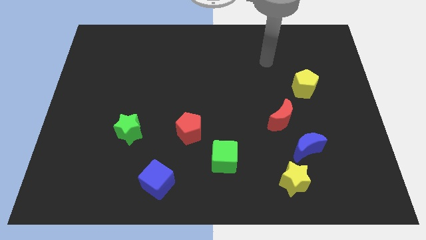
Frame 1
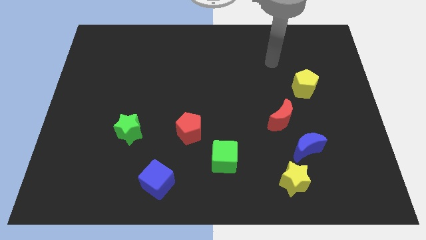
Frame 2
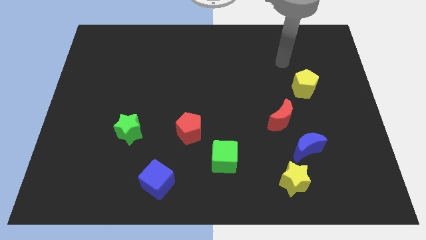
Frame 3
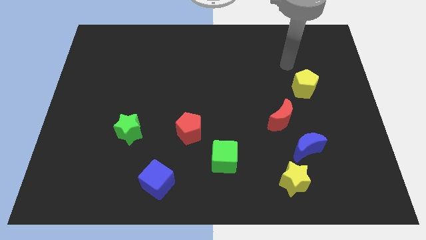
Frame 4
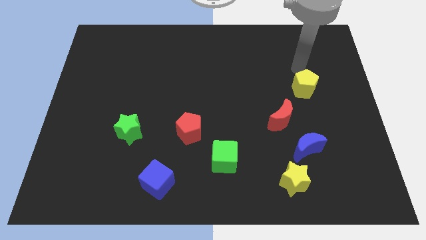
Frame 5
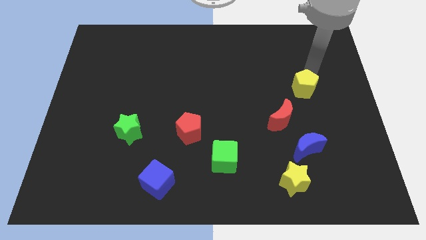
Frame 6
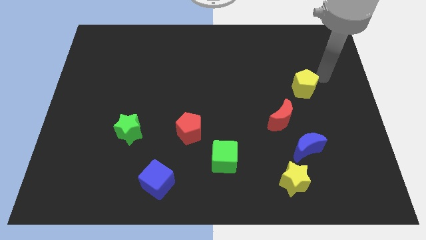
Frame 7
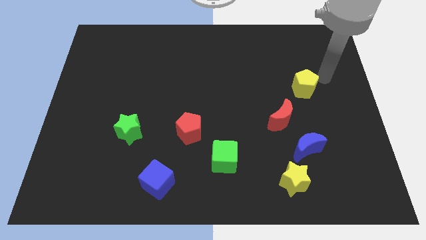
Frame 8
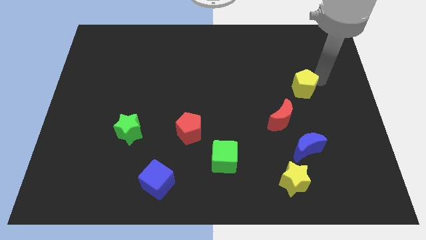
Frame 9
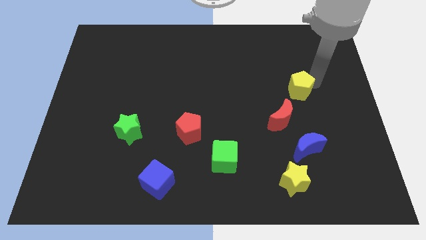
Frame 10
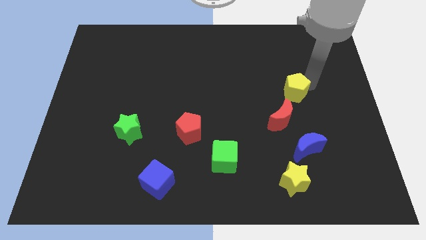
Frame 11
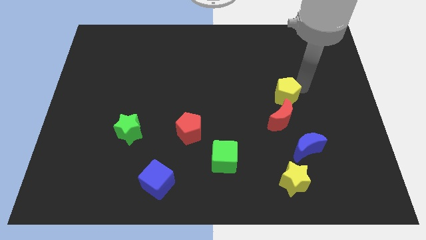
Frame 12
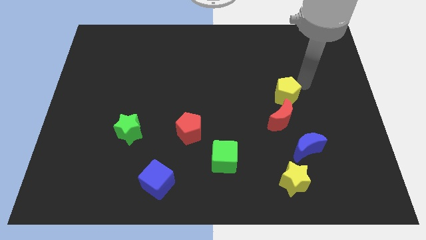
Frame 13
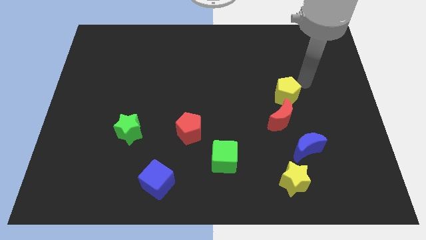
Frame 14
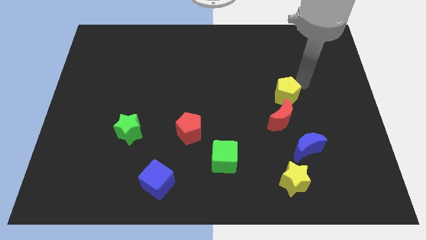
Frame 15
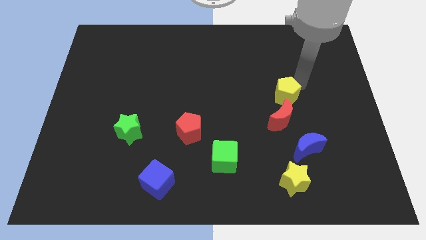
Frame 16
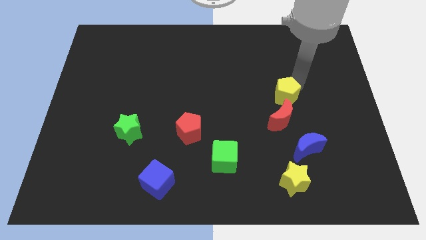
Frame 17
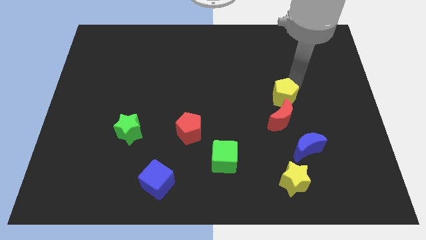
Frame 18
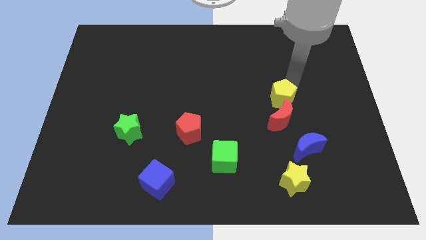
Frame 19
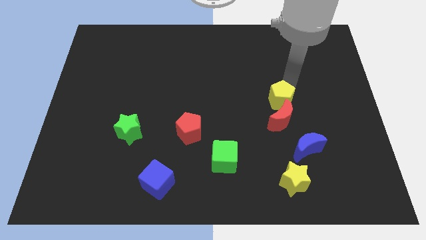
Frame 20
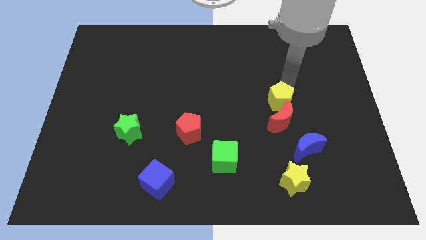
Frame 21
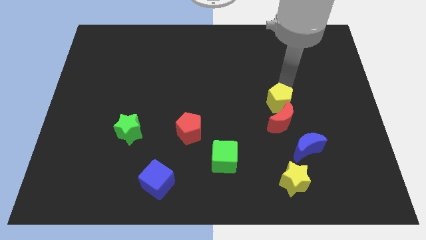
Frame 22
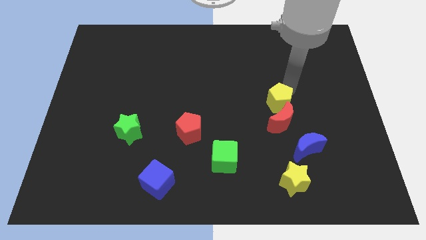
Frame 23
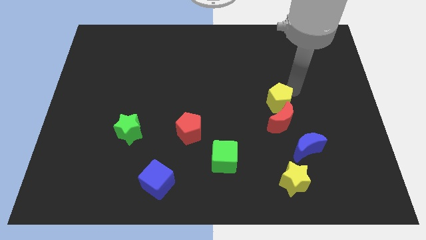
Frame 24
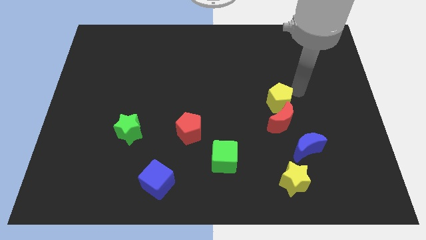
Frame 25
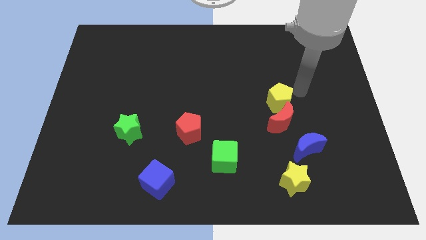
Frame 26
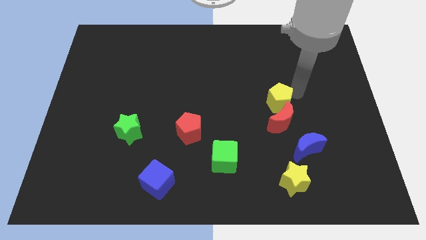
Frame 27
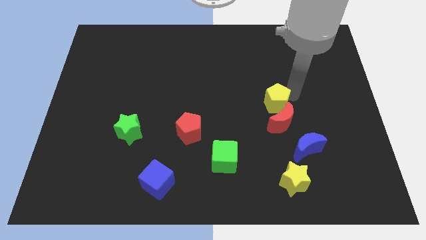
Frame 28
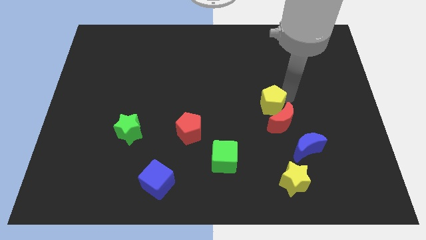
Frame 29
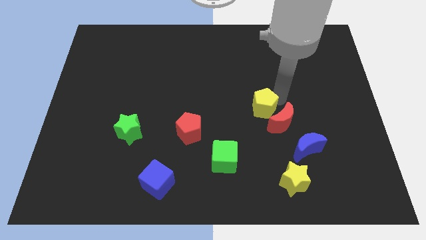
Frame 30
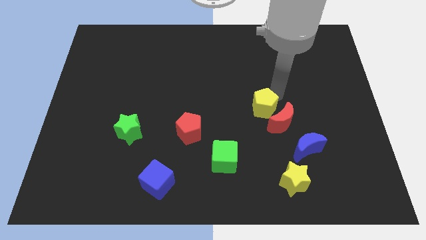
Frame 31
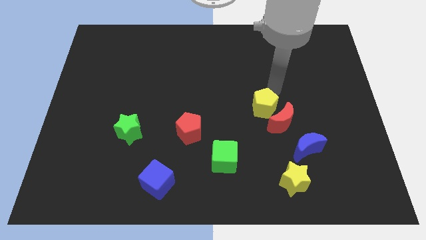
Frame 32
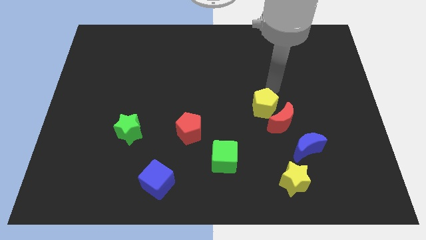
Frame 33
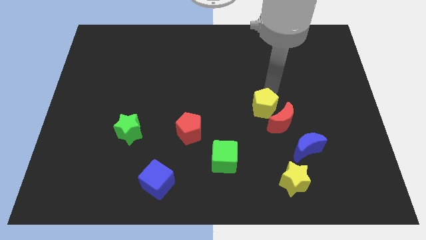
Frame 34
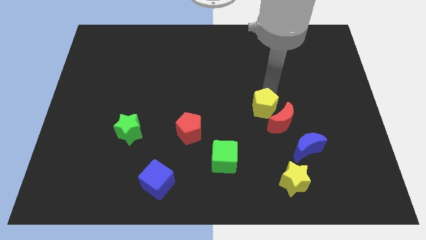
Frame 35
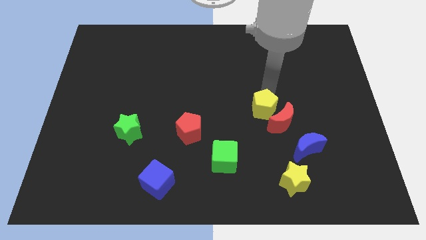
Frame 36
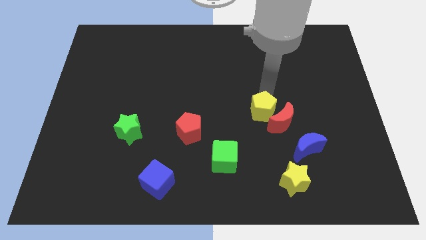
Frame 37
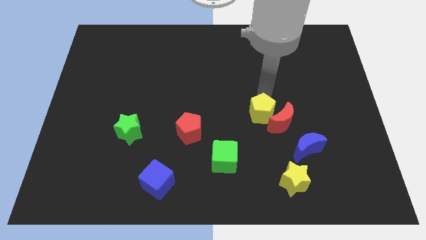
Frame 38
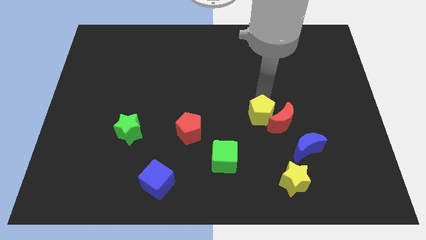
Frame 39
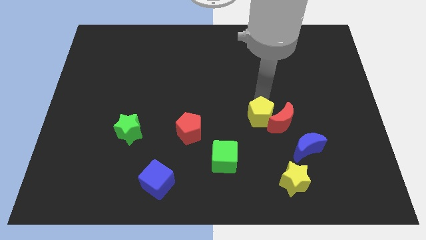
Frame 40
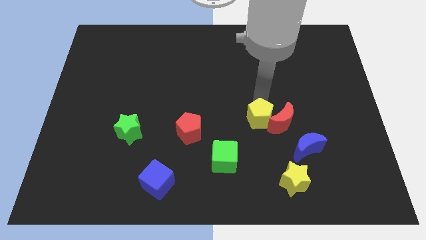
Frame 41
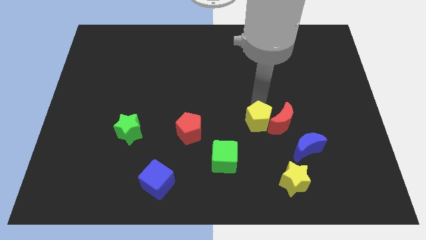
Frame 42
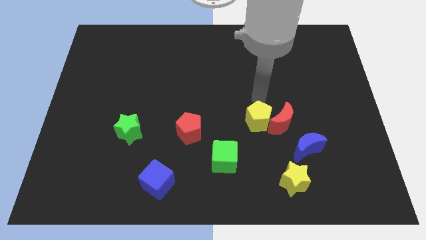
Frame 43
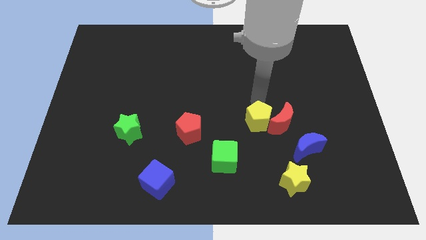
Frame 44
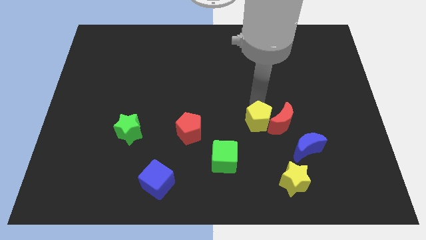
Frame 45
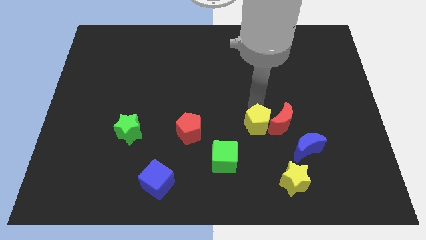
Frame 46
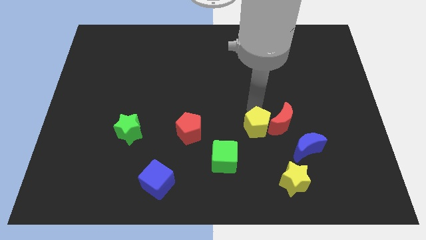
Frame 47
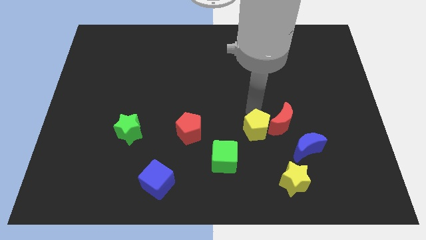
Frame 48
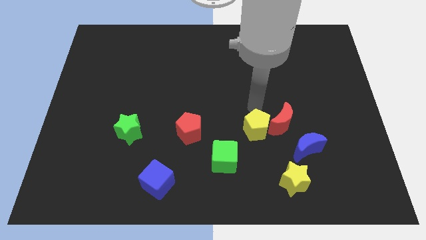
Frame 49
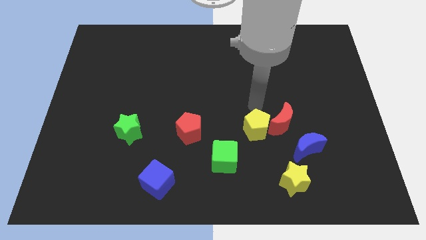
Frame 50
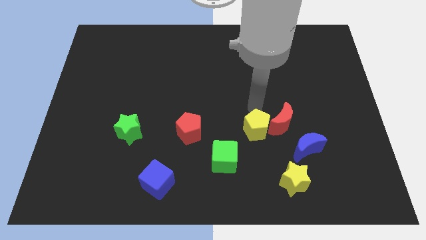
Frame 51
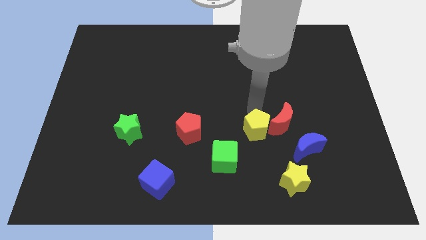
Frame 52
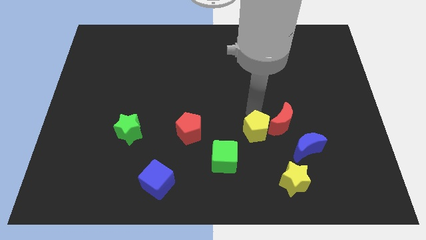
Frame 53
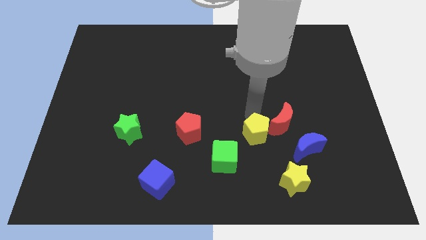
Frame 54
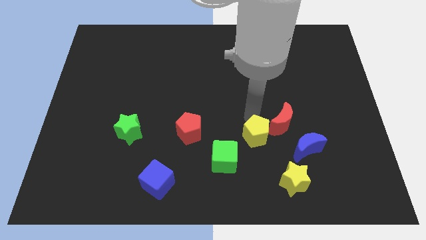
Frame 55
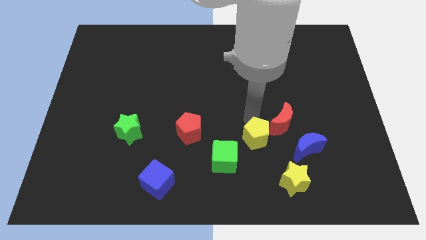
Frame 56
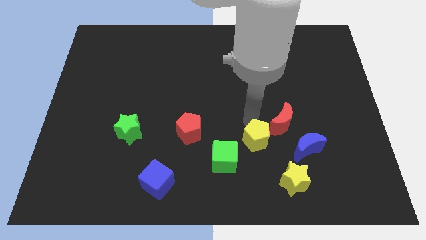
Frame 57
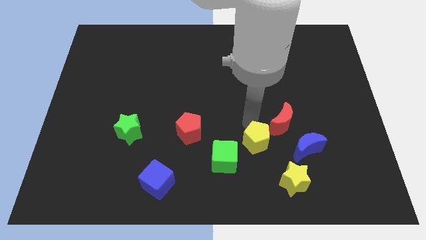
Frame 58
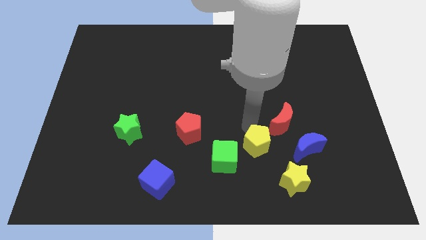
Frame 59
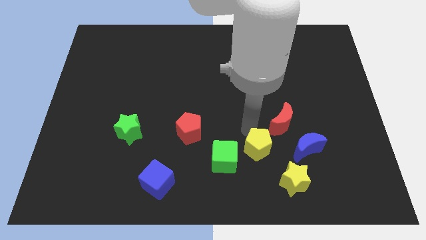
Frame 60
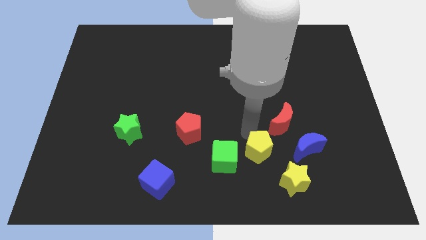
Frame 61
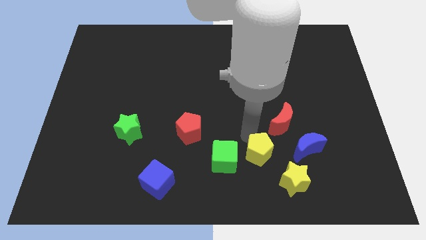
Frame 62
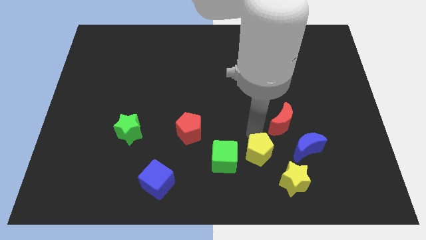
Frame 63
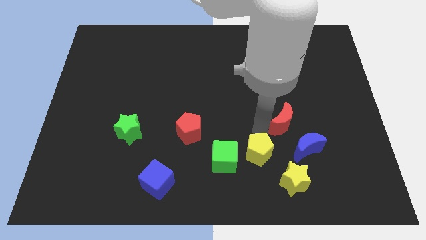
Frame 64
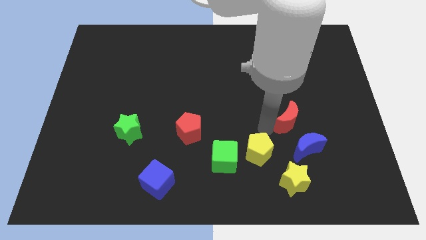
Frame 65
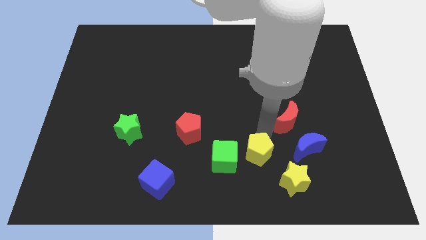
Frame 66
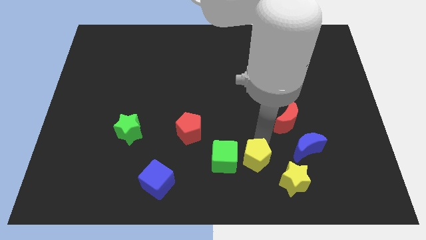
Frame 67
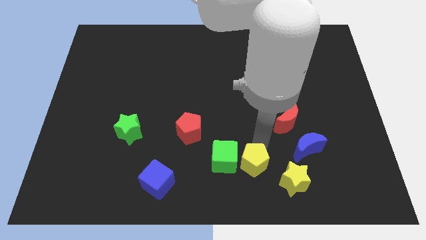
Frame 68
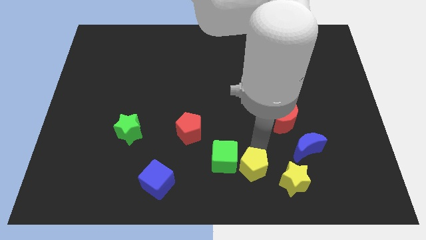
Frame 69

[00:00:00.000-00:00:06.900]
put the yellow pentagon to the bottom side
